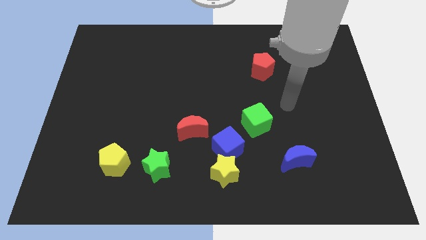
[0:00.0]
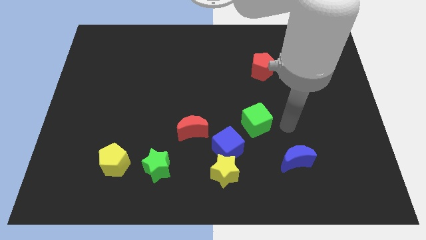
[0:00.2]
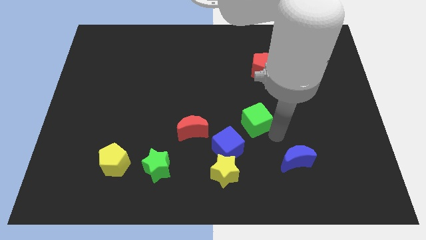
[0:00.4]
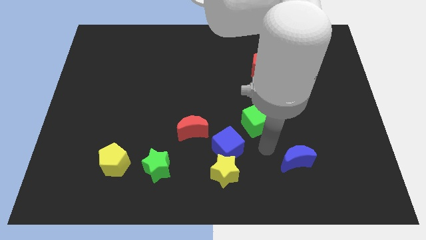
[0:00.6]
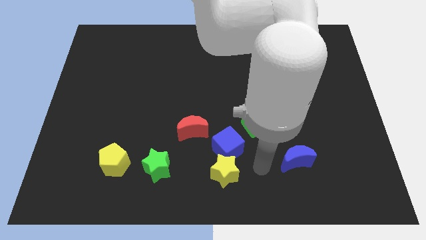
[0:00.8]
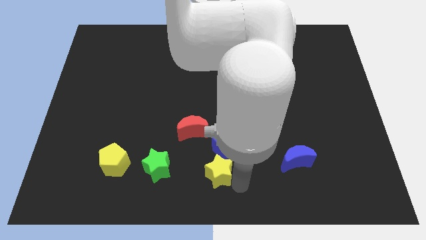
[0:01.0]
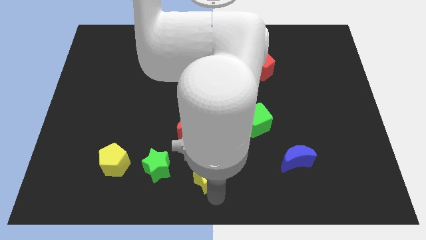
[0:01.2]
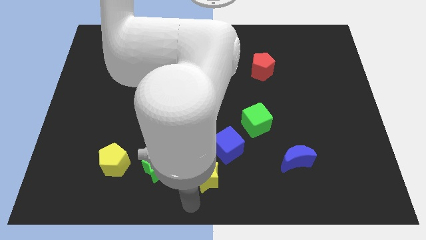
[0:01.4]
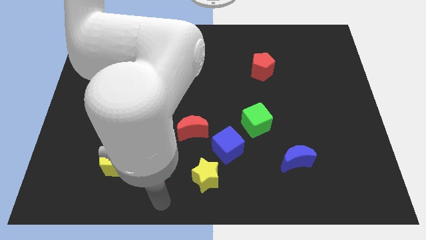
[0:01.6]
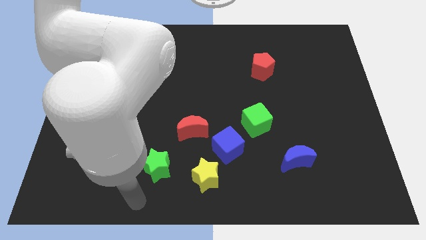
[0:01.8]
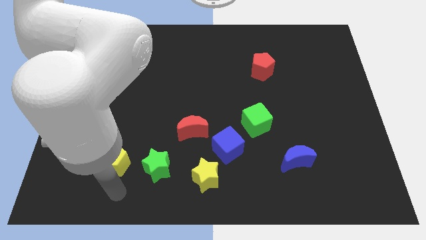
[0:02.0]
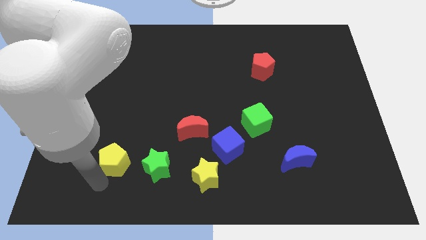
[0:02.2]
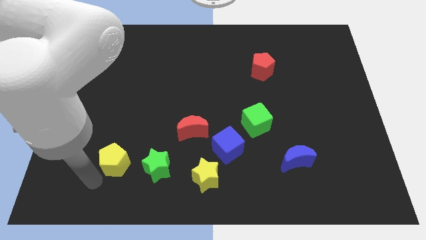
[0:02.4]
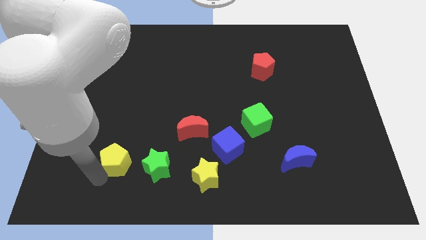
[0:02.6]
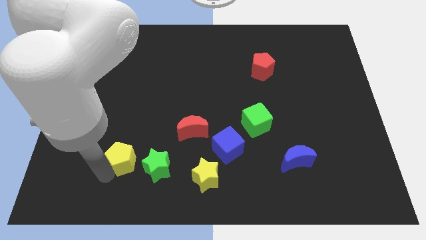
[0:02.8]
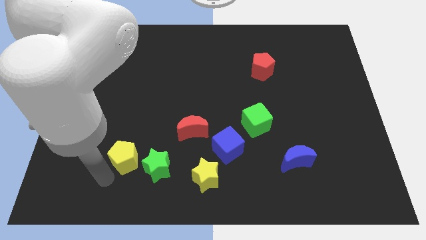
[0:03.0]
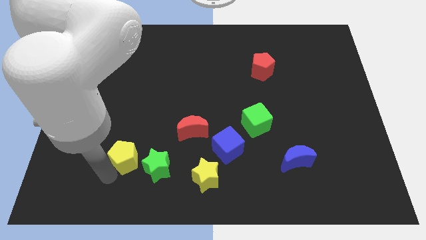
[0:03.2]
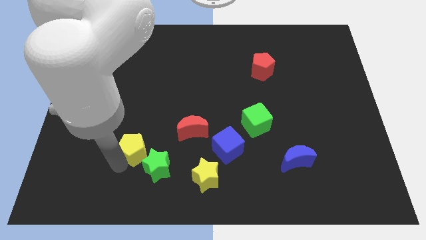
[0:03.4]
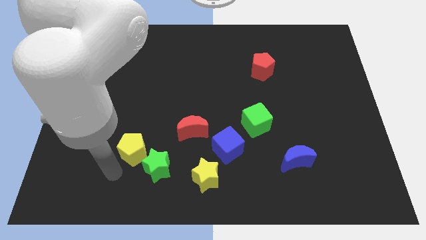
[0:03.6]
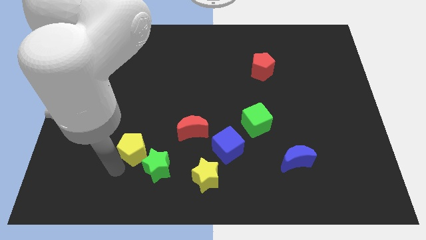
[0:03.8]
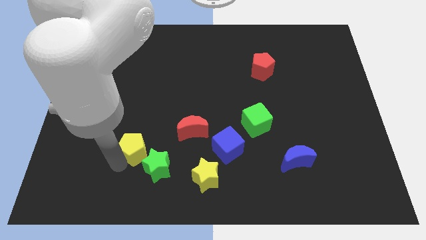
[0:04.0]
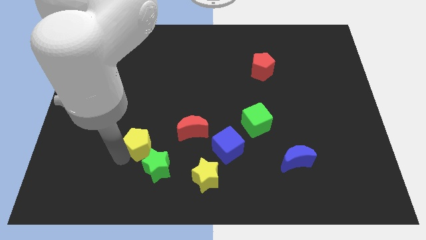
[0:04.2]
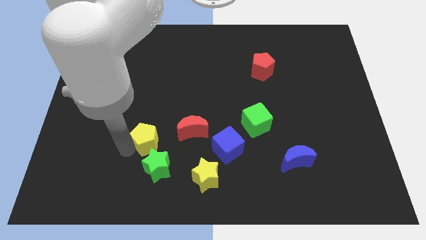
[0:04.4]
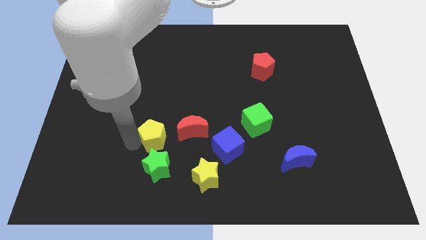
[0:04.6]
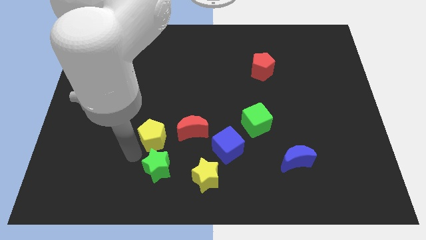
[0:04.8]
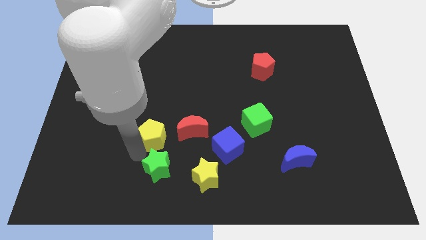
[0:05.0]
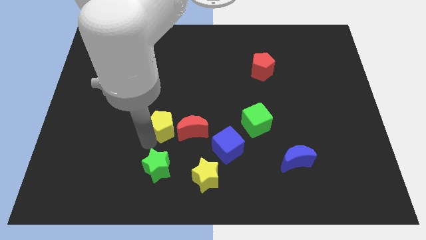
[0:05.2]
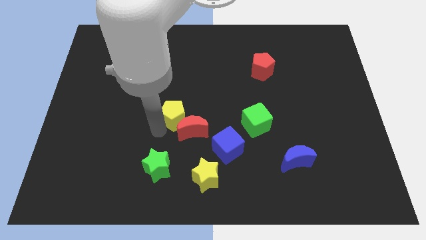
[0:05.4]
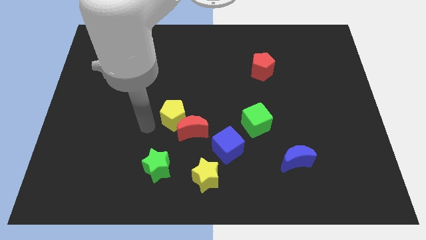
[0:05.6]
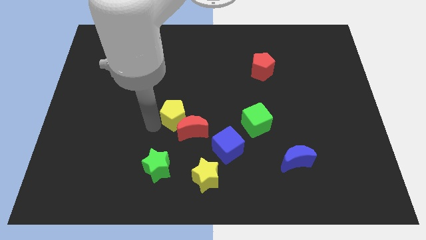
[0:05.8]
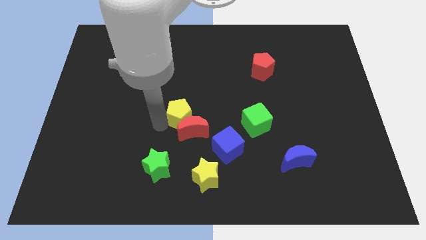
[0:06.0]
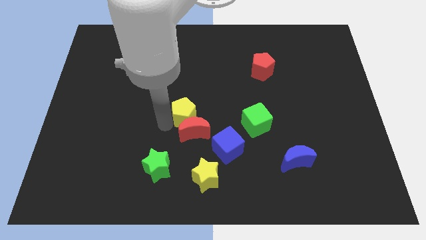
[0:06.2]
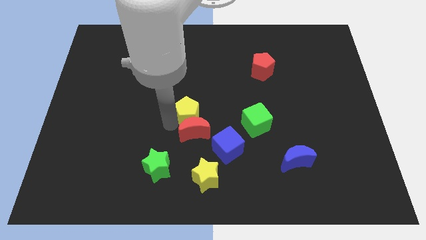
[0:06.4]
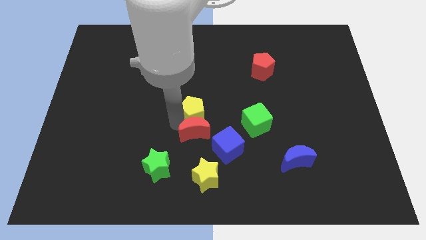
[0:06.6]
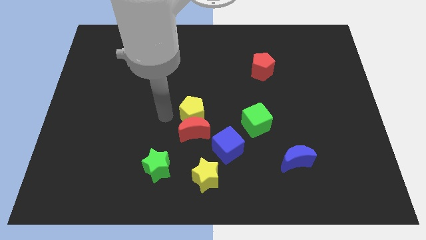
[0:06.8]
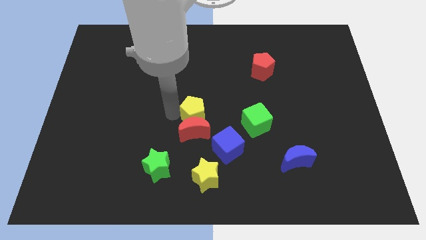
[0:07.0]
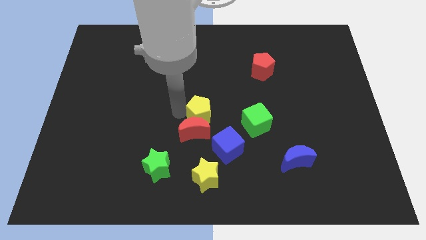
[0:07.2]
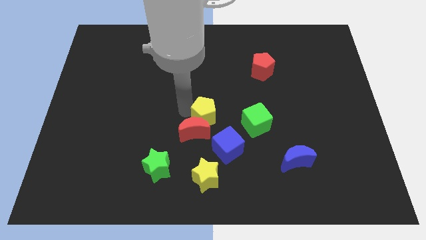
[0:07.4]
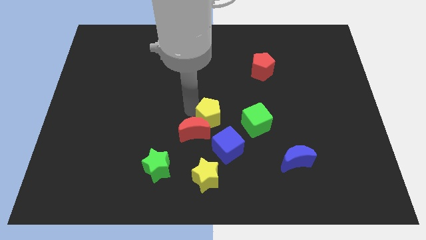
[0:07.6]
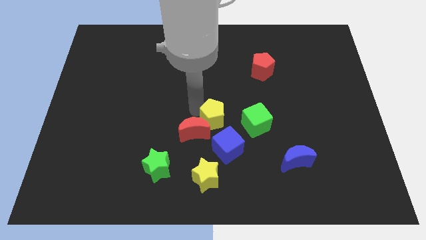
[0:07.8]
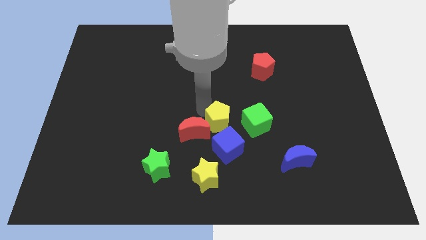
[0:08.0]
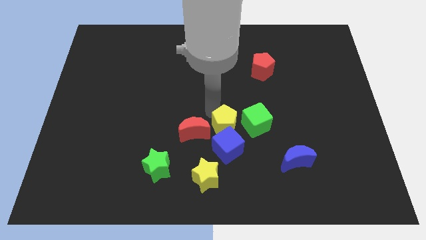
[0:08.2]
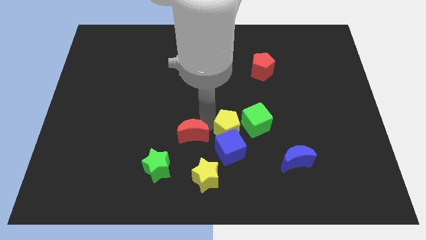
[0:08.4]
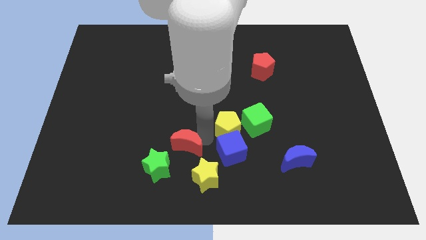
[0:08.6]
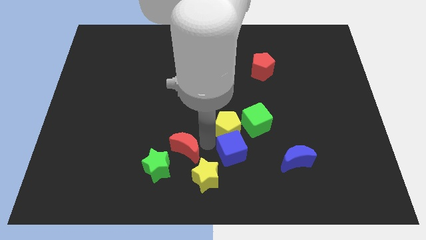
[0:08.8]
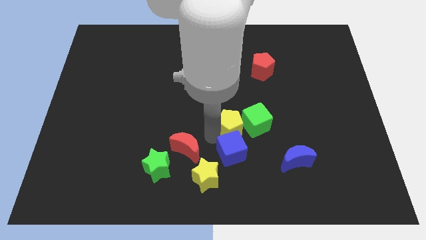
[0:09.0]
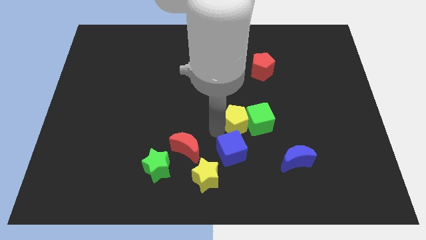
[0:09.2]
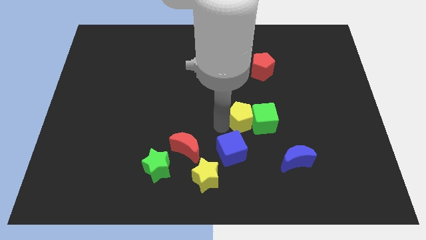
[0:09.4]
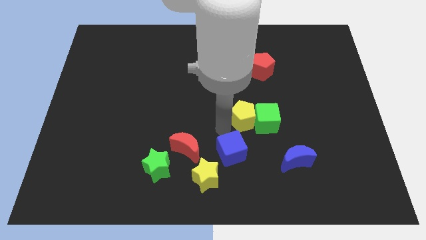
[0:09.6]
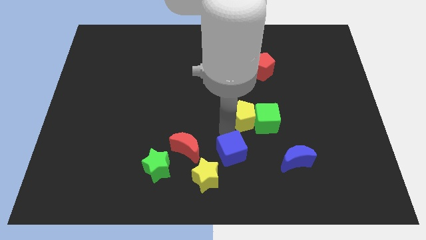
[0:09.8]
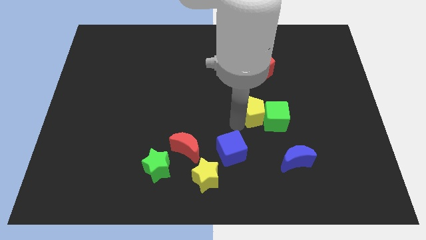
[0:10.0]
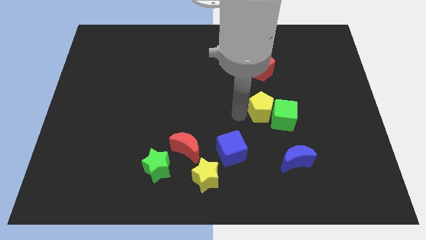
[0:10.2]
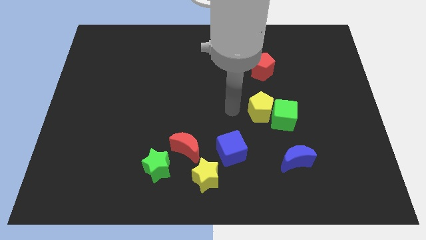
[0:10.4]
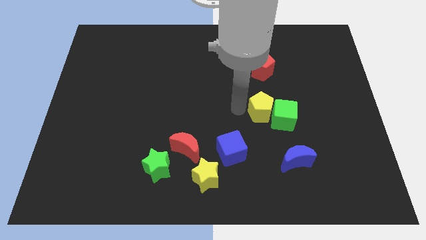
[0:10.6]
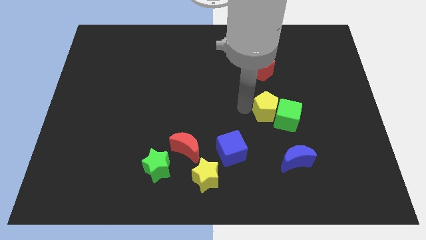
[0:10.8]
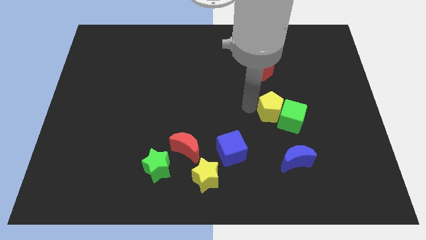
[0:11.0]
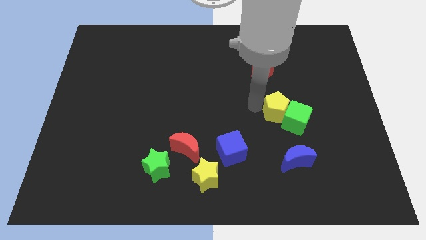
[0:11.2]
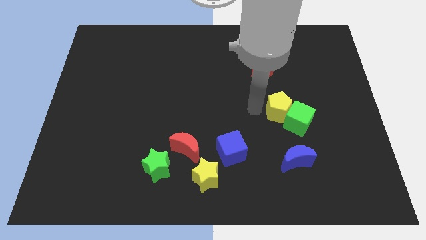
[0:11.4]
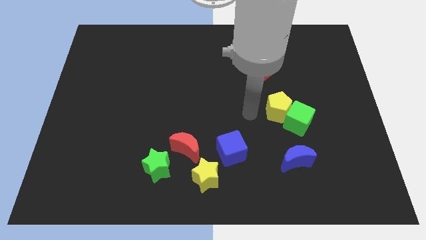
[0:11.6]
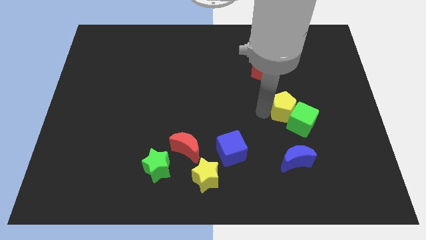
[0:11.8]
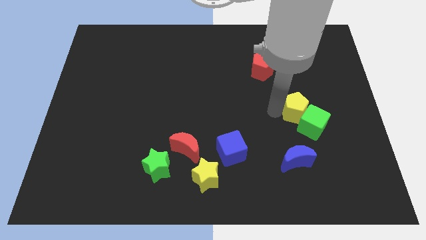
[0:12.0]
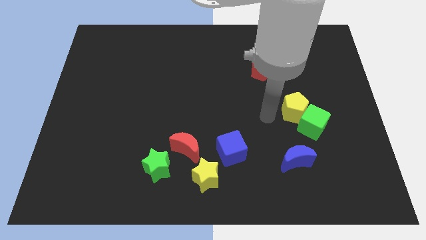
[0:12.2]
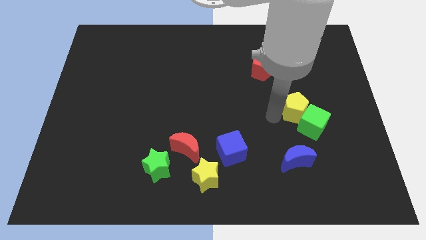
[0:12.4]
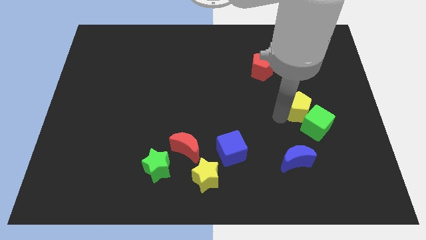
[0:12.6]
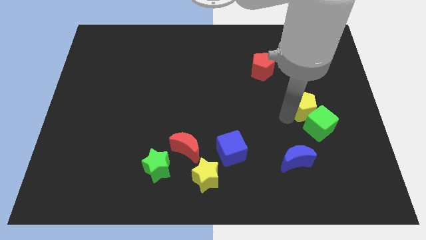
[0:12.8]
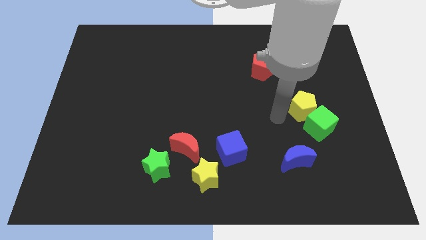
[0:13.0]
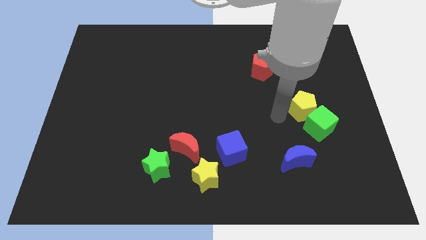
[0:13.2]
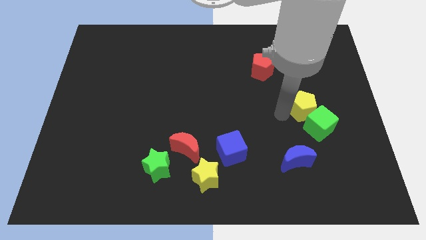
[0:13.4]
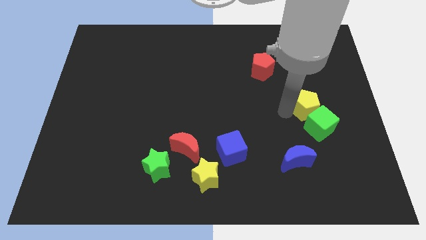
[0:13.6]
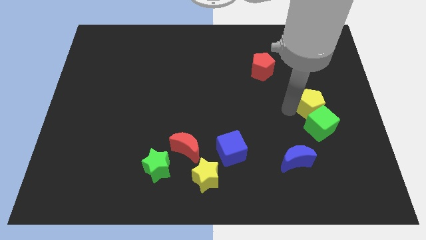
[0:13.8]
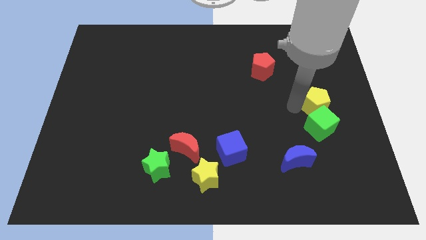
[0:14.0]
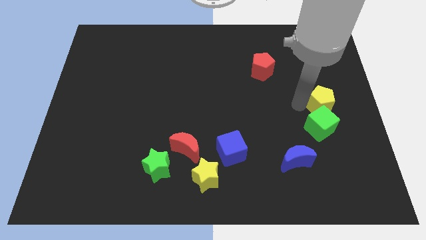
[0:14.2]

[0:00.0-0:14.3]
move the yellow pentagon to the right side of the board
